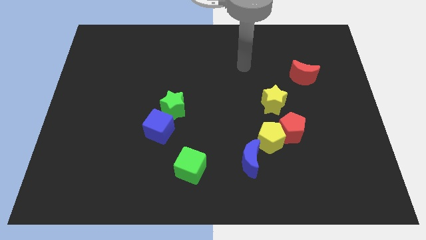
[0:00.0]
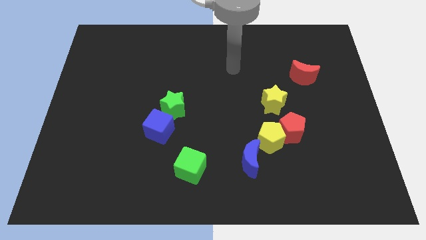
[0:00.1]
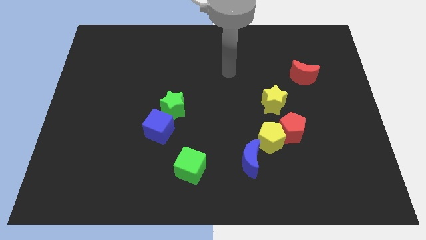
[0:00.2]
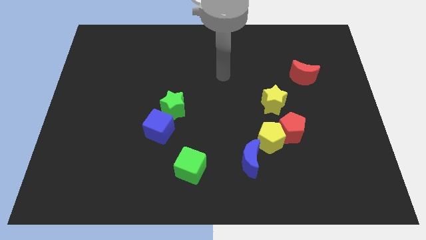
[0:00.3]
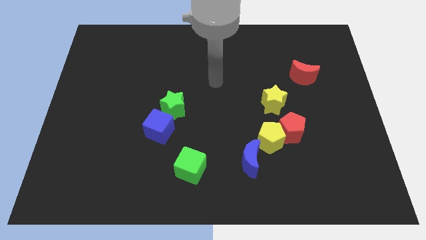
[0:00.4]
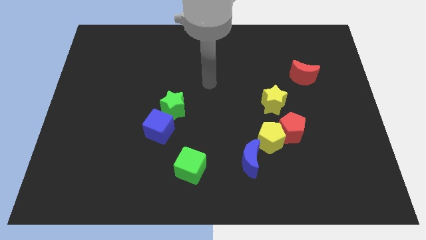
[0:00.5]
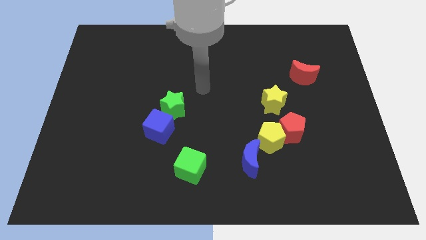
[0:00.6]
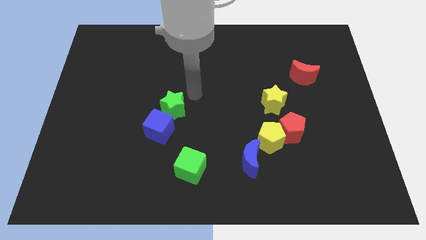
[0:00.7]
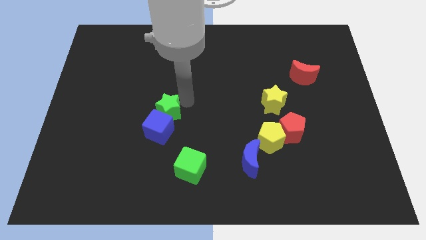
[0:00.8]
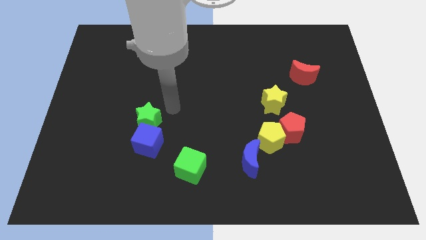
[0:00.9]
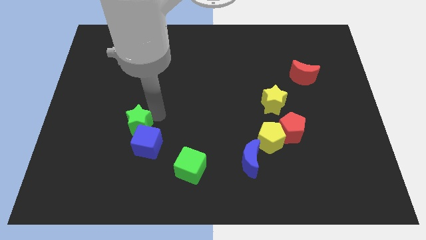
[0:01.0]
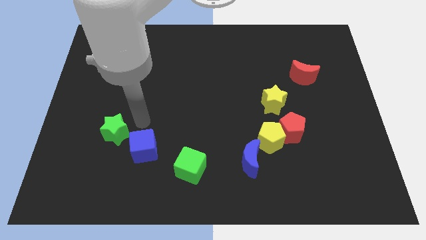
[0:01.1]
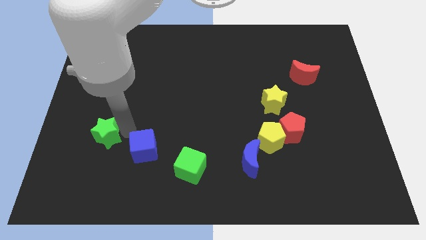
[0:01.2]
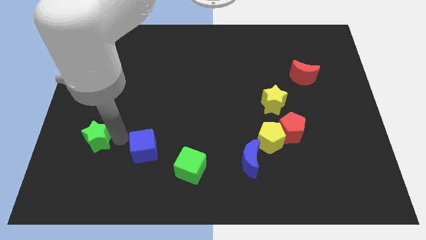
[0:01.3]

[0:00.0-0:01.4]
separate the blue cube from the green star

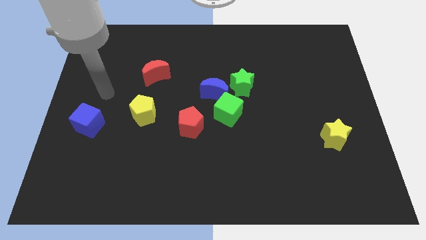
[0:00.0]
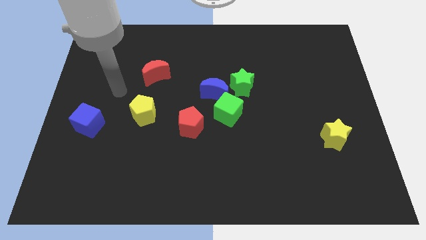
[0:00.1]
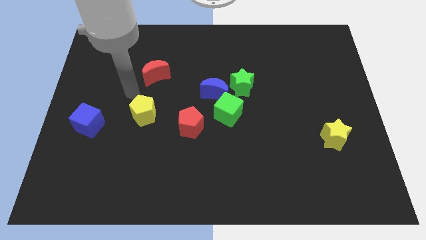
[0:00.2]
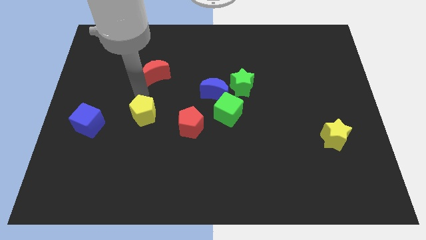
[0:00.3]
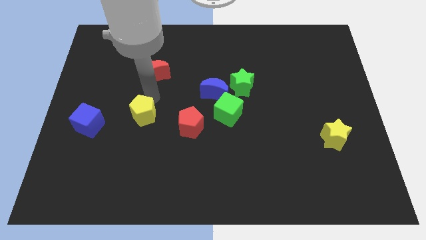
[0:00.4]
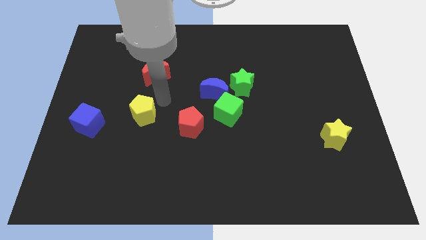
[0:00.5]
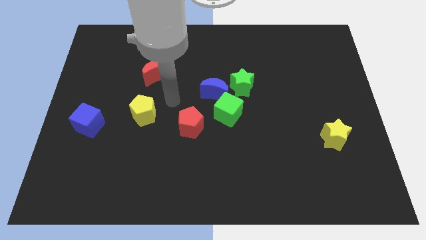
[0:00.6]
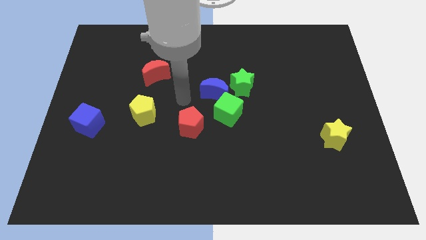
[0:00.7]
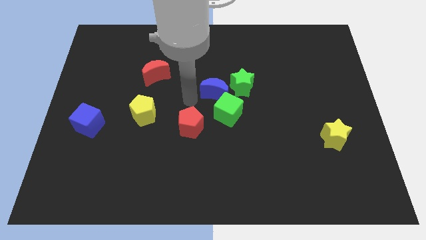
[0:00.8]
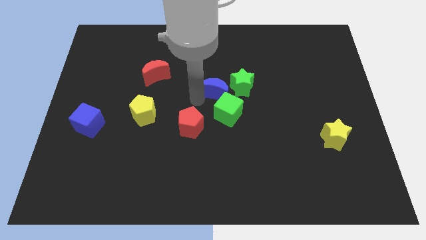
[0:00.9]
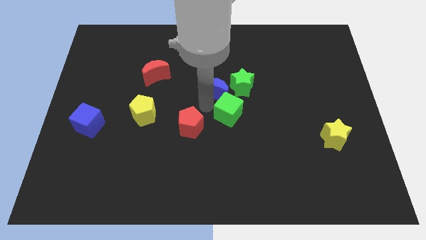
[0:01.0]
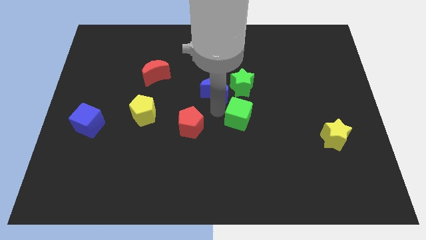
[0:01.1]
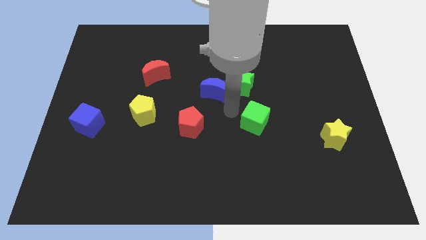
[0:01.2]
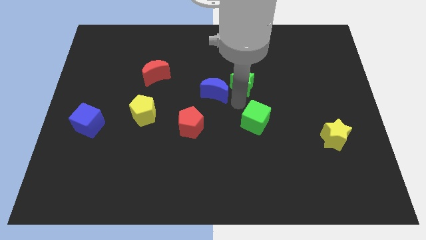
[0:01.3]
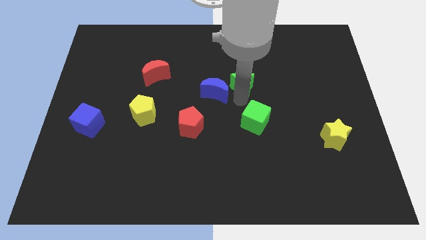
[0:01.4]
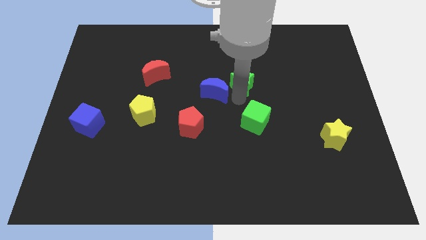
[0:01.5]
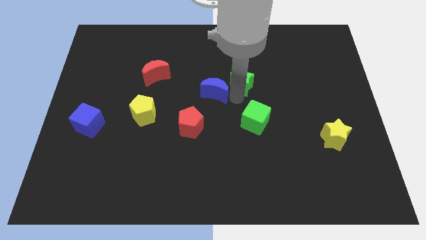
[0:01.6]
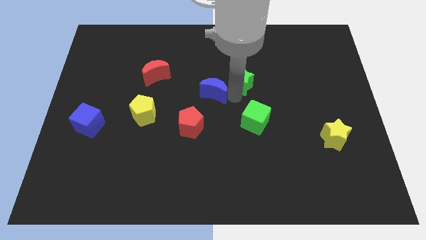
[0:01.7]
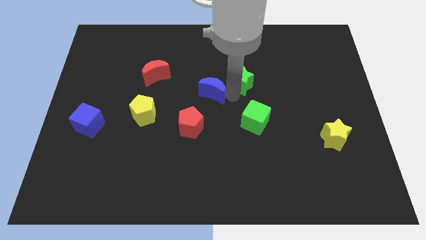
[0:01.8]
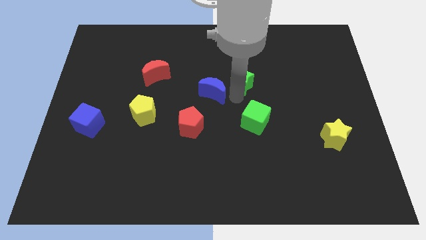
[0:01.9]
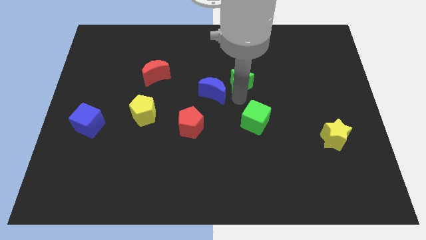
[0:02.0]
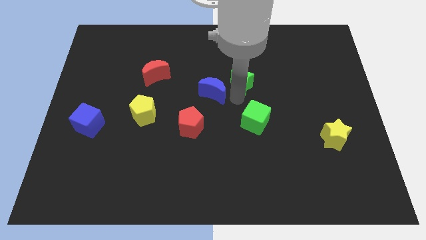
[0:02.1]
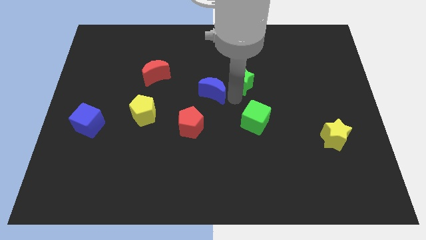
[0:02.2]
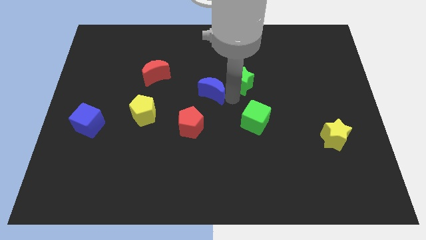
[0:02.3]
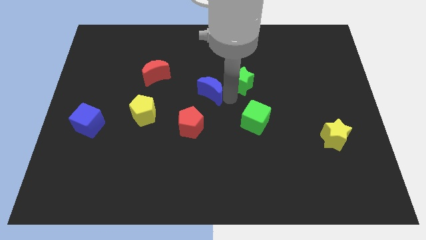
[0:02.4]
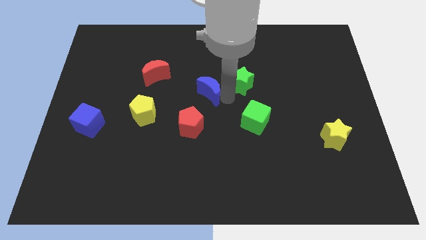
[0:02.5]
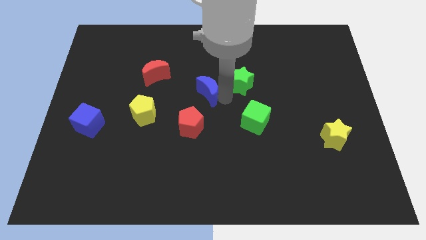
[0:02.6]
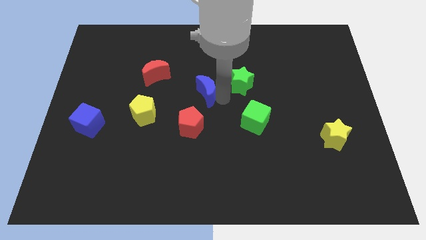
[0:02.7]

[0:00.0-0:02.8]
move the blue moon away from the green cube and green star

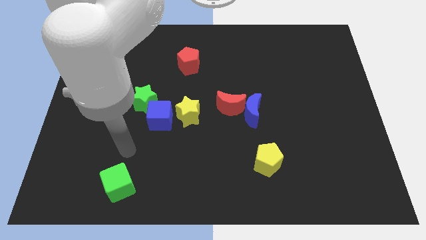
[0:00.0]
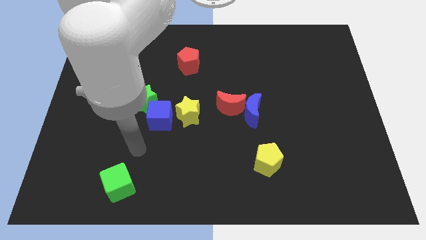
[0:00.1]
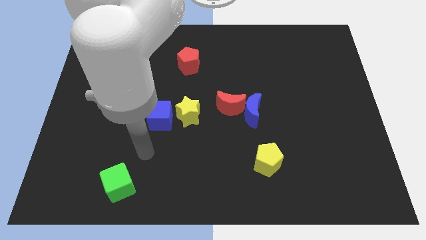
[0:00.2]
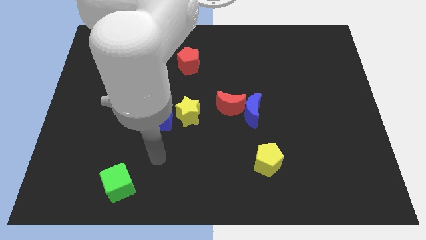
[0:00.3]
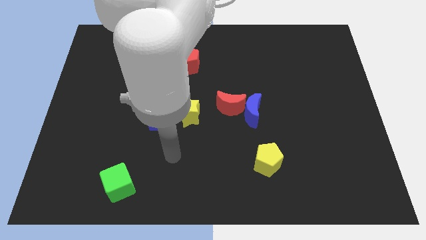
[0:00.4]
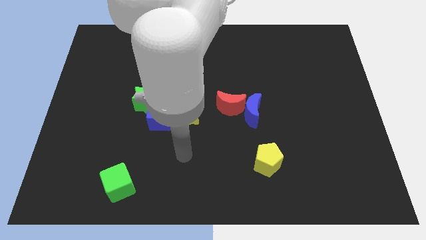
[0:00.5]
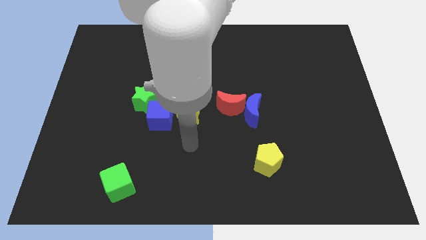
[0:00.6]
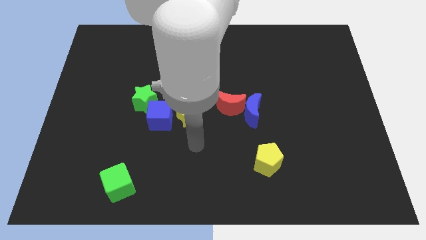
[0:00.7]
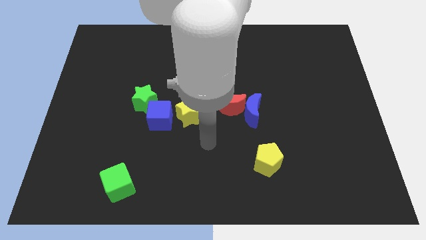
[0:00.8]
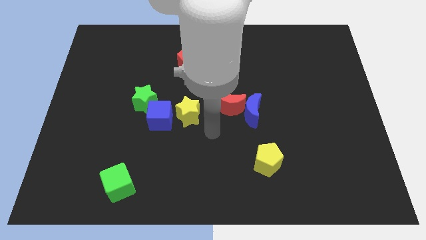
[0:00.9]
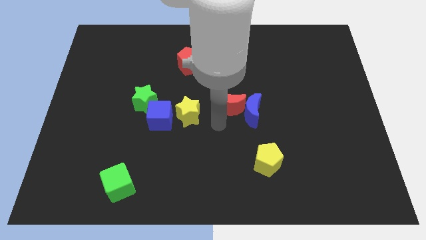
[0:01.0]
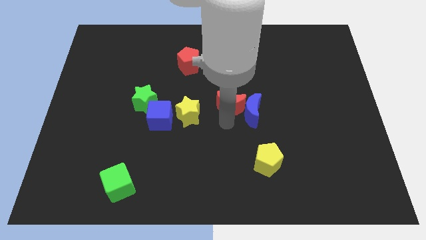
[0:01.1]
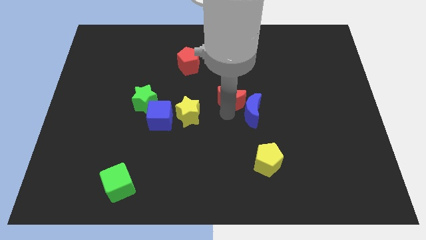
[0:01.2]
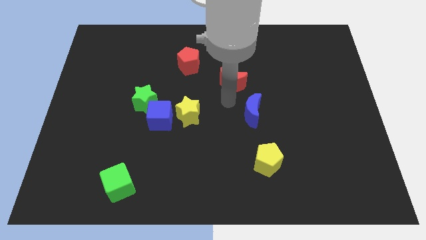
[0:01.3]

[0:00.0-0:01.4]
pull the blue moon apart from the red moon

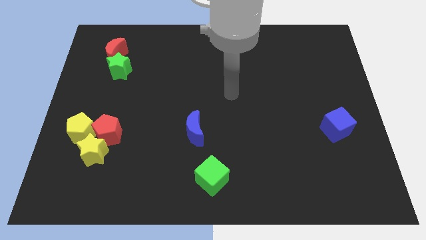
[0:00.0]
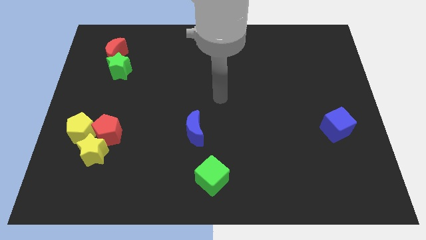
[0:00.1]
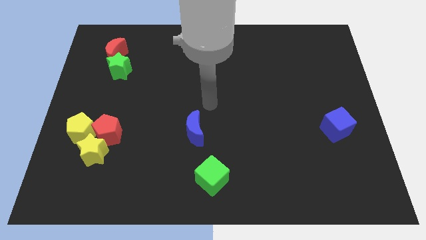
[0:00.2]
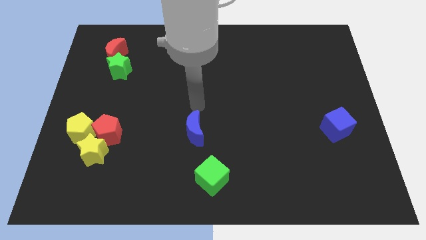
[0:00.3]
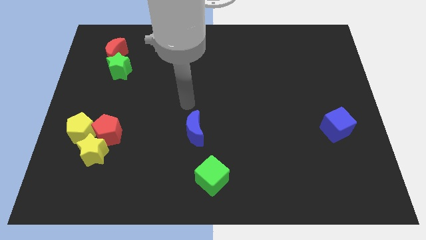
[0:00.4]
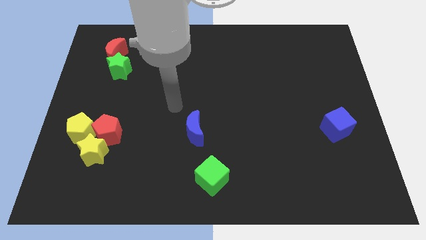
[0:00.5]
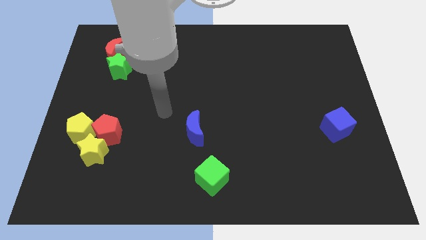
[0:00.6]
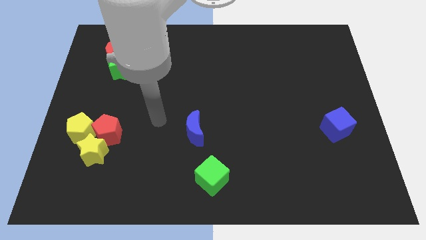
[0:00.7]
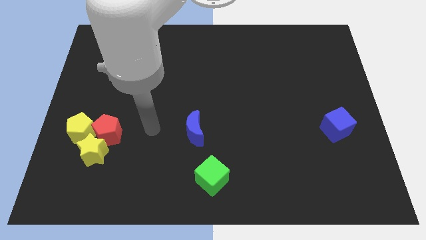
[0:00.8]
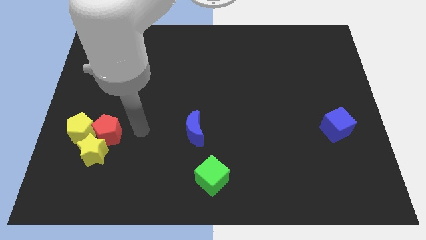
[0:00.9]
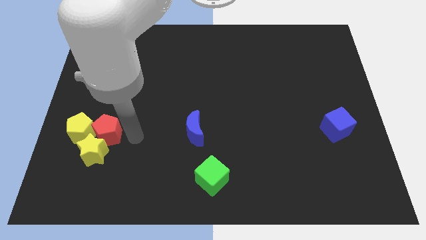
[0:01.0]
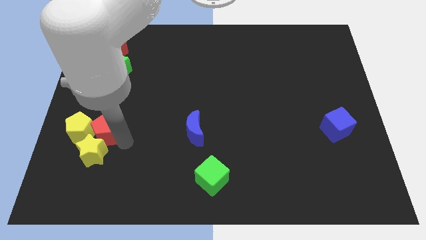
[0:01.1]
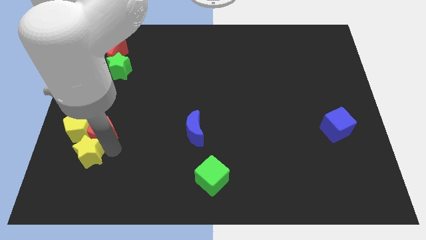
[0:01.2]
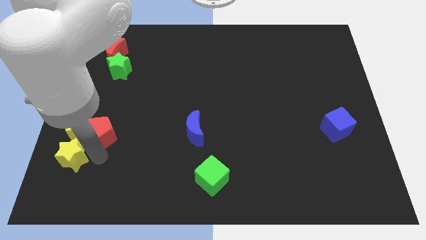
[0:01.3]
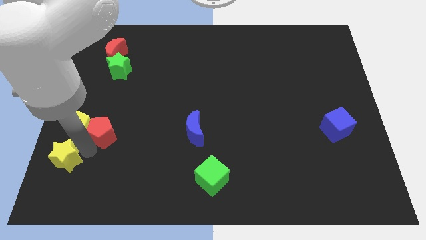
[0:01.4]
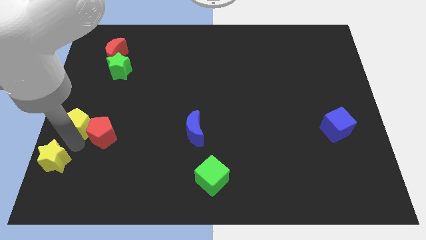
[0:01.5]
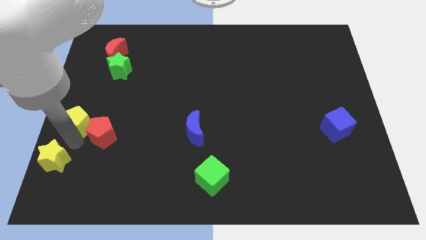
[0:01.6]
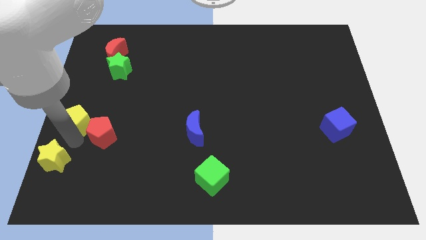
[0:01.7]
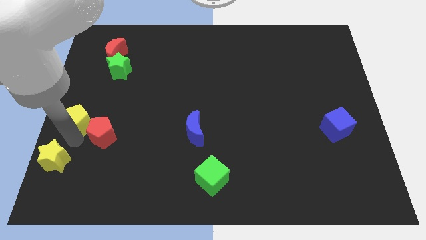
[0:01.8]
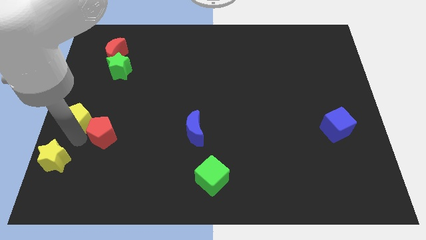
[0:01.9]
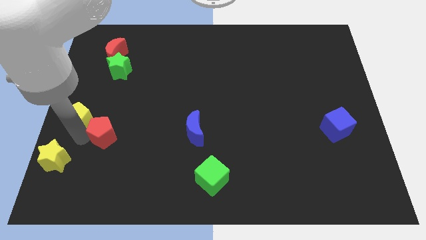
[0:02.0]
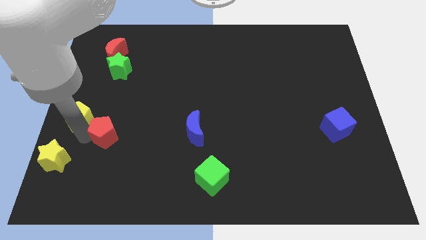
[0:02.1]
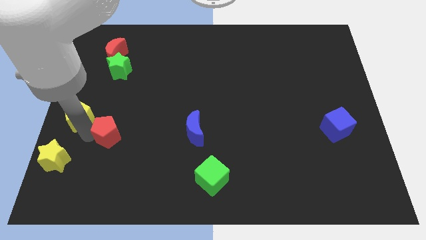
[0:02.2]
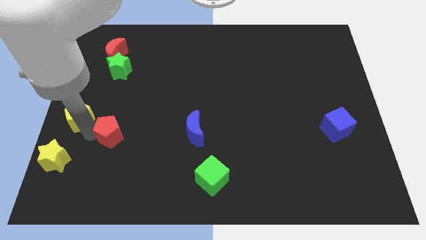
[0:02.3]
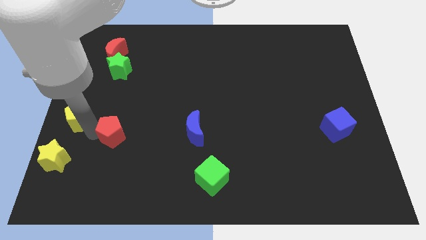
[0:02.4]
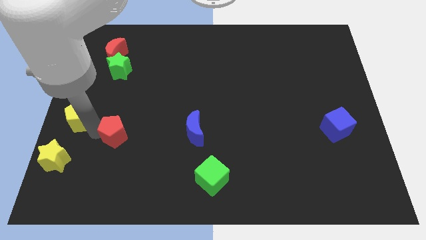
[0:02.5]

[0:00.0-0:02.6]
separate the red pentagon from the yellow pentagon and yellow star

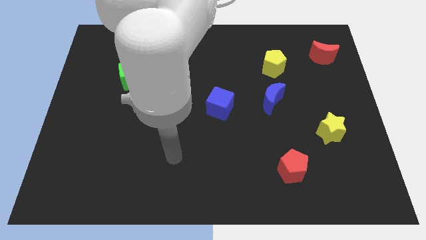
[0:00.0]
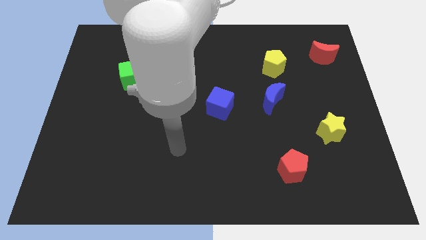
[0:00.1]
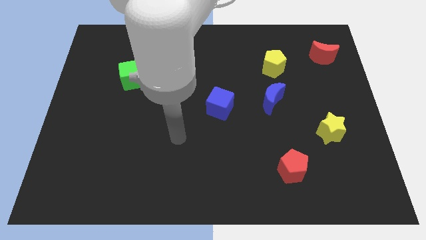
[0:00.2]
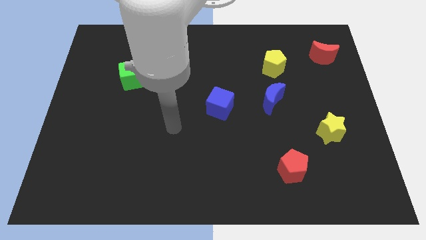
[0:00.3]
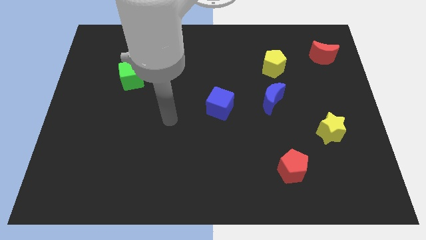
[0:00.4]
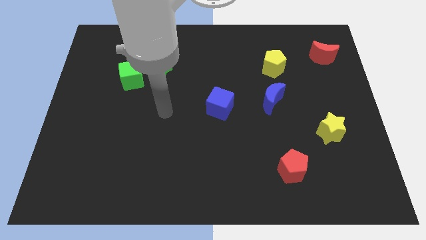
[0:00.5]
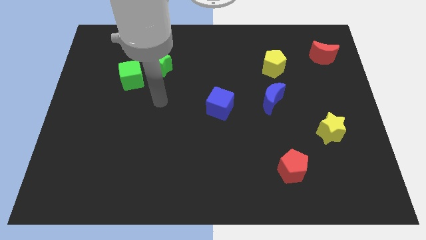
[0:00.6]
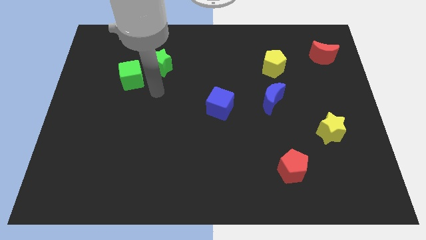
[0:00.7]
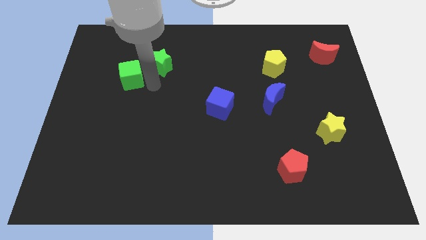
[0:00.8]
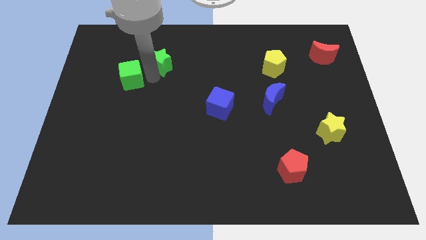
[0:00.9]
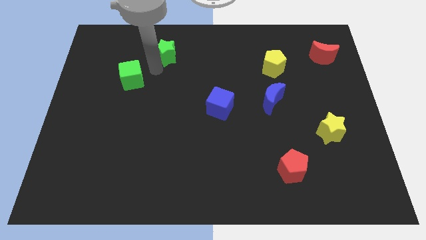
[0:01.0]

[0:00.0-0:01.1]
separate the green cube from the green star
